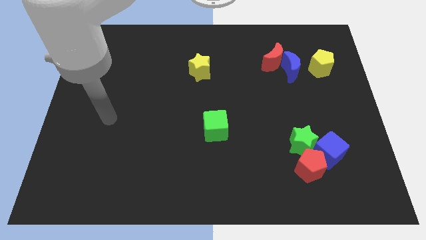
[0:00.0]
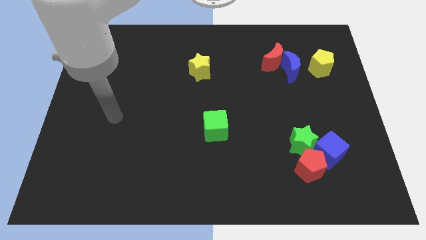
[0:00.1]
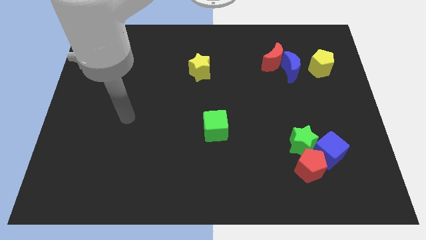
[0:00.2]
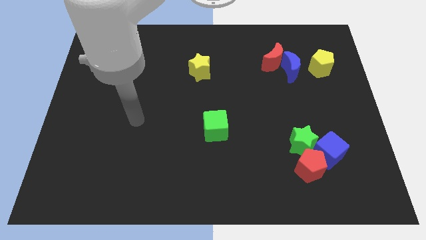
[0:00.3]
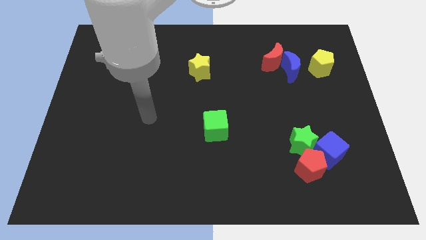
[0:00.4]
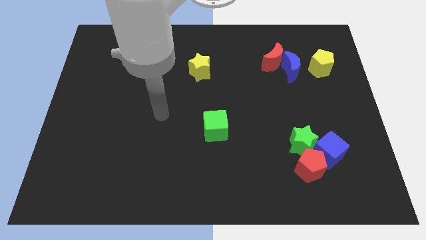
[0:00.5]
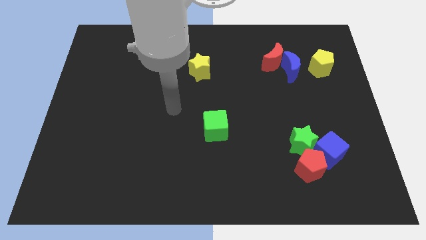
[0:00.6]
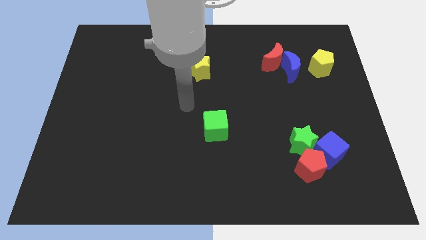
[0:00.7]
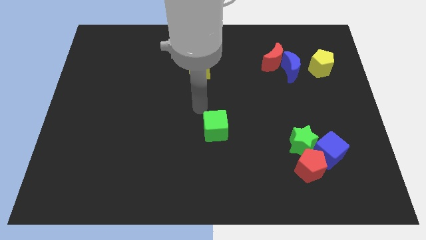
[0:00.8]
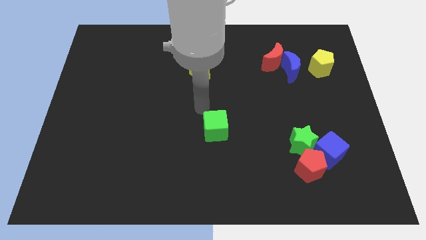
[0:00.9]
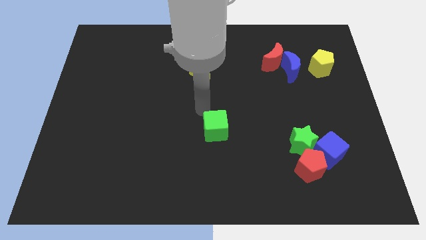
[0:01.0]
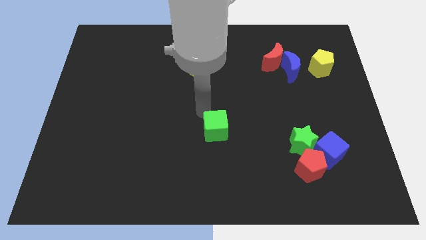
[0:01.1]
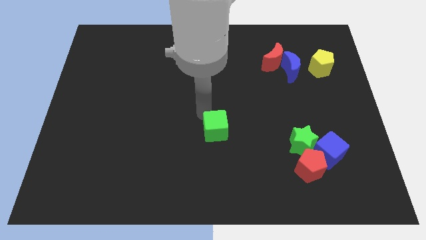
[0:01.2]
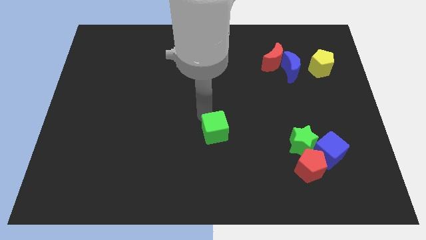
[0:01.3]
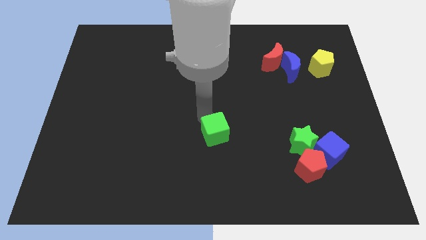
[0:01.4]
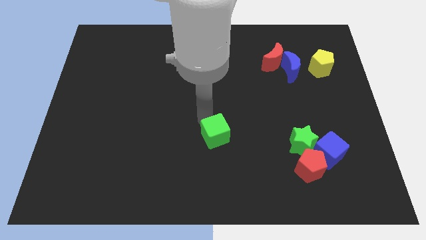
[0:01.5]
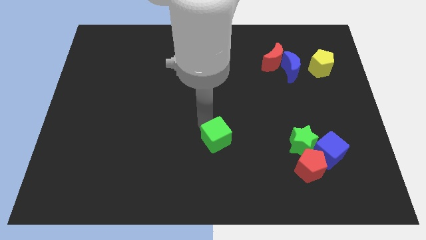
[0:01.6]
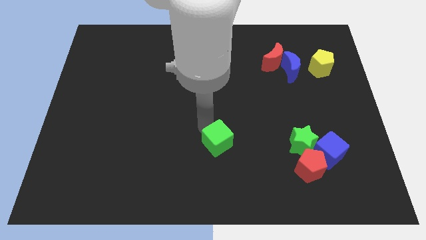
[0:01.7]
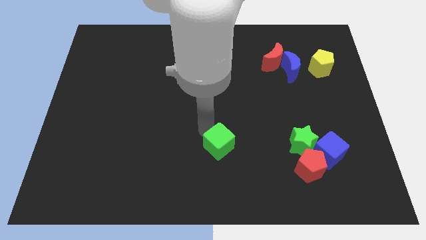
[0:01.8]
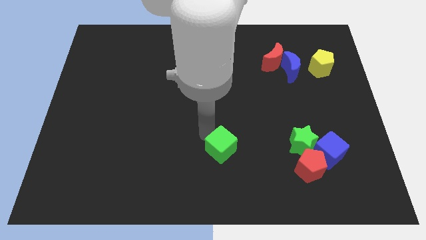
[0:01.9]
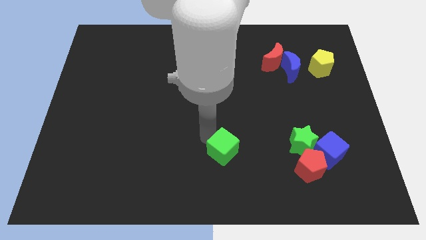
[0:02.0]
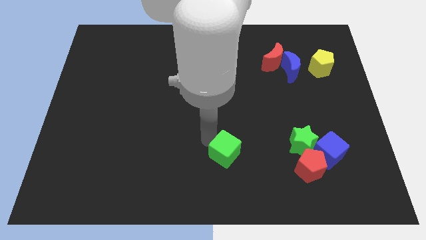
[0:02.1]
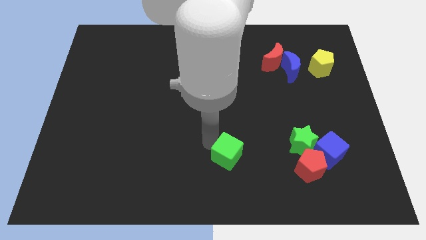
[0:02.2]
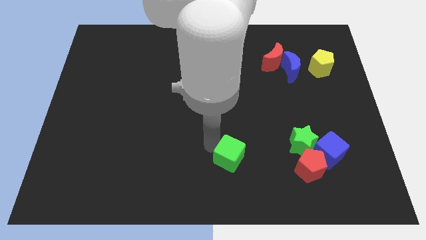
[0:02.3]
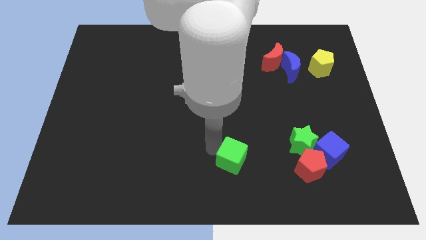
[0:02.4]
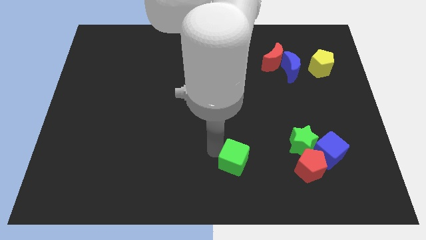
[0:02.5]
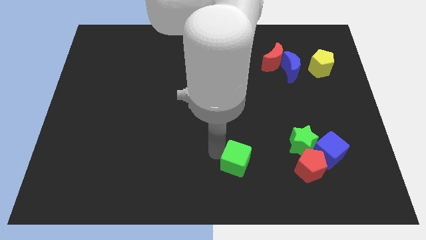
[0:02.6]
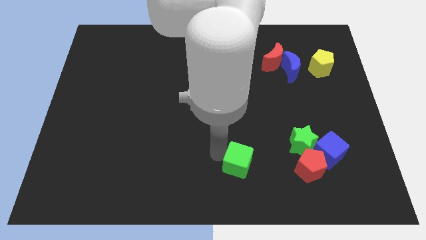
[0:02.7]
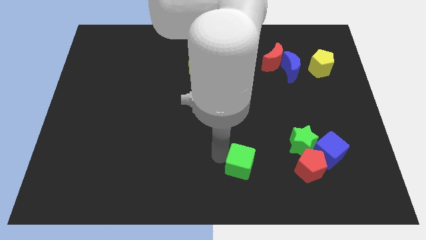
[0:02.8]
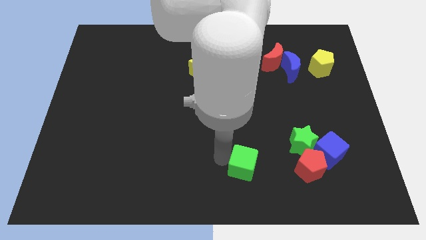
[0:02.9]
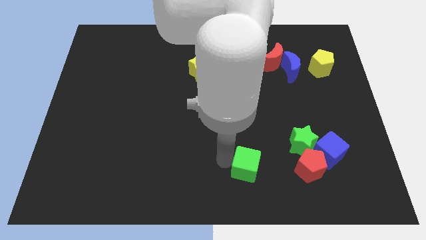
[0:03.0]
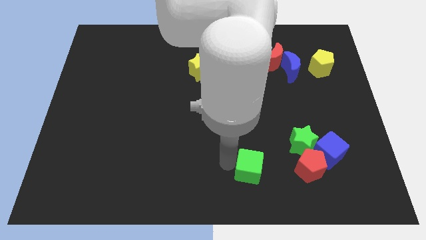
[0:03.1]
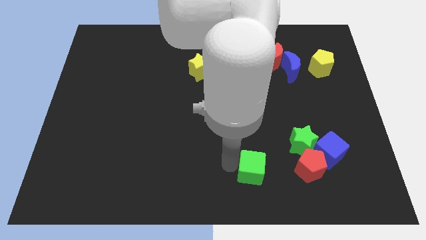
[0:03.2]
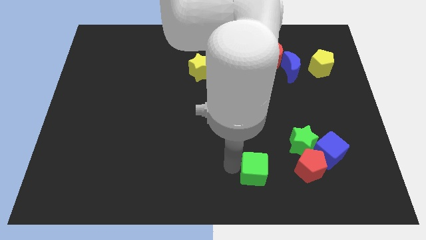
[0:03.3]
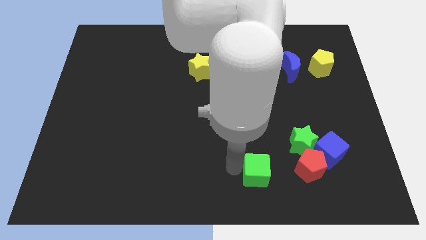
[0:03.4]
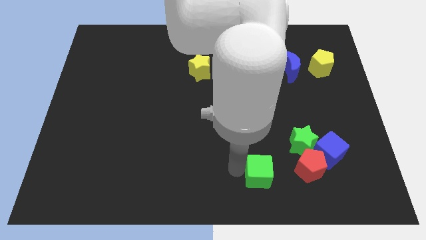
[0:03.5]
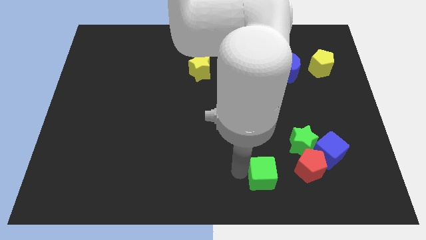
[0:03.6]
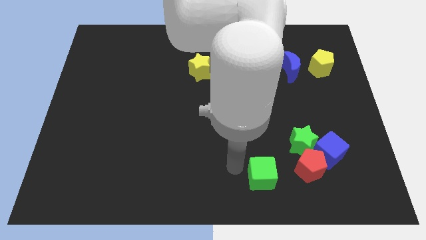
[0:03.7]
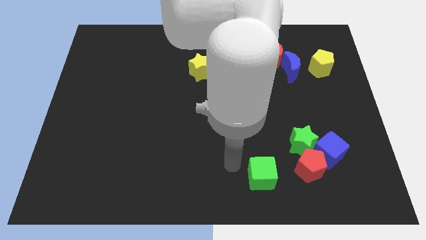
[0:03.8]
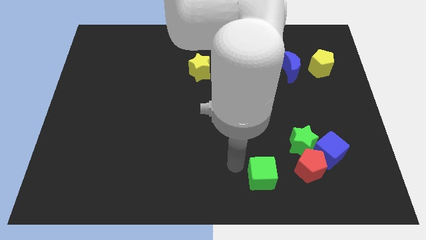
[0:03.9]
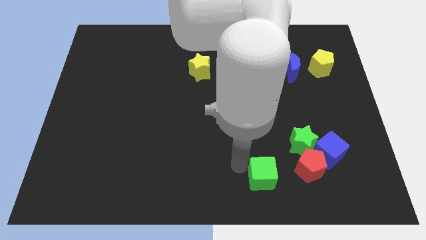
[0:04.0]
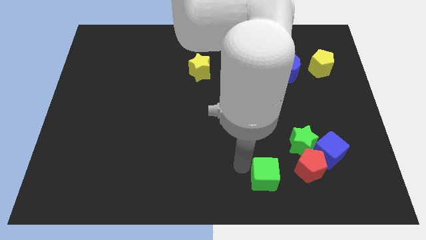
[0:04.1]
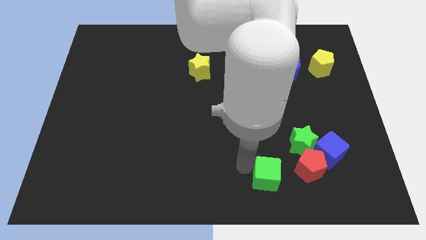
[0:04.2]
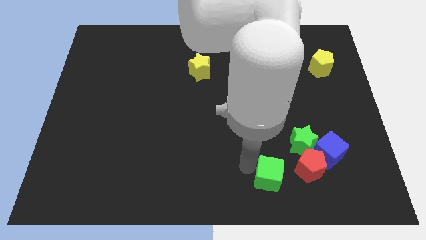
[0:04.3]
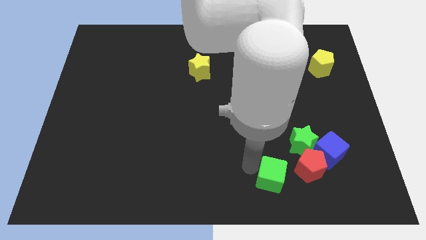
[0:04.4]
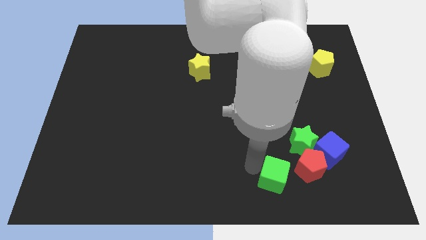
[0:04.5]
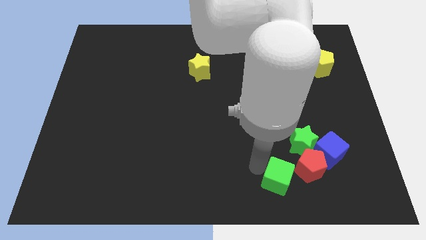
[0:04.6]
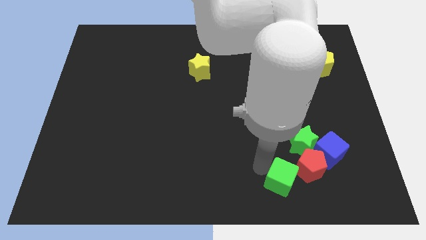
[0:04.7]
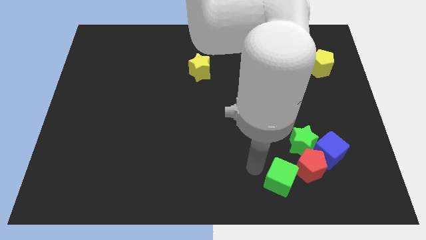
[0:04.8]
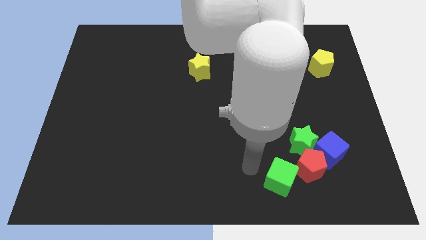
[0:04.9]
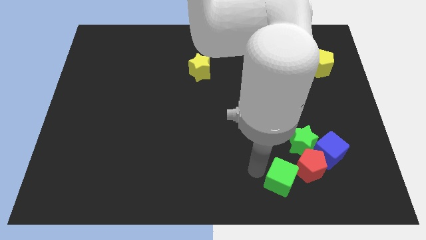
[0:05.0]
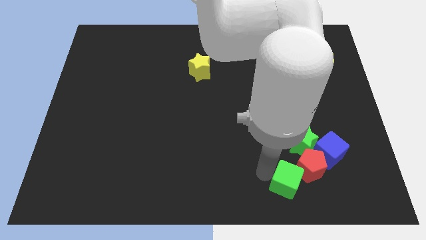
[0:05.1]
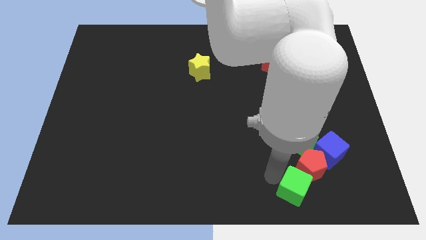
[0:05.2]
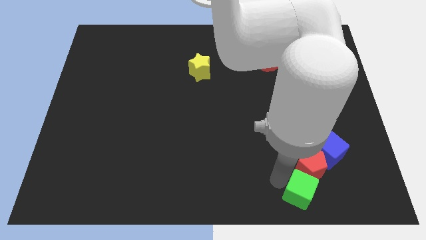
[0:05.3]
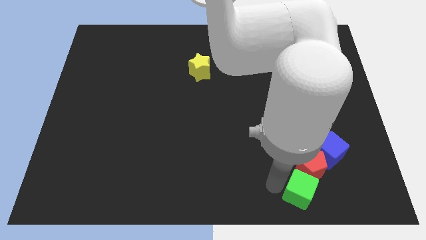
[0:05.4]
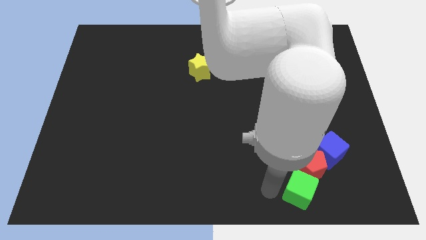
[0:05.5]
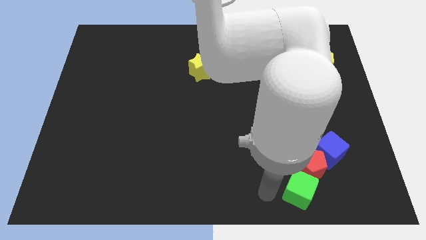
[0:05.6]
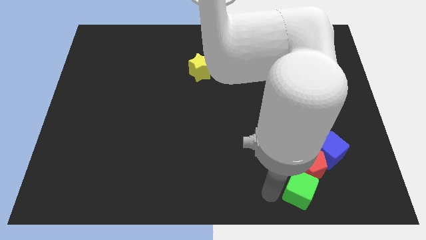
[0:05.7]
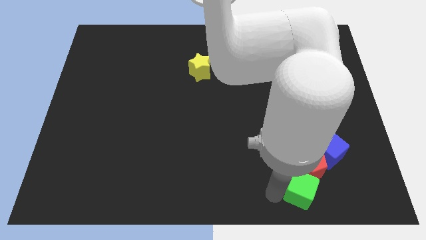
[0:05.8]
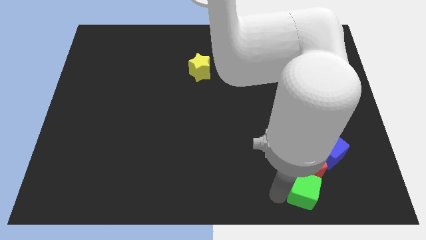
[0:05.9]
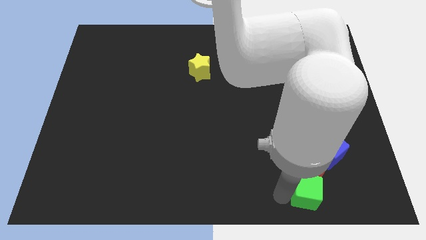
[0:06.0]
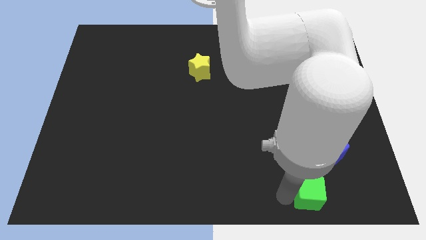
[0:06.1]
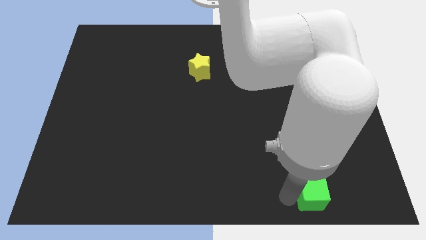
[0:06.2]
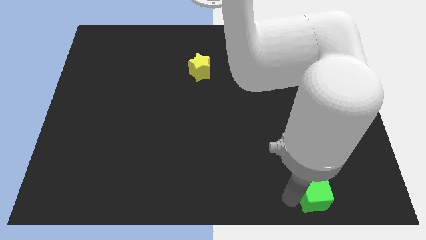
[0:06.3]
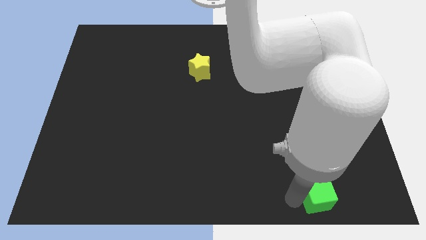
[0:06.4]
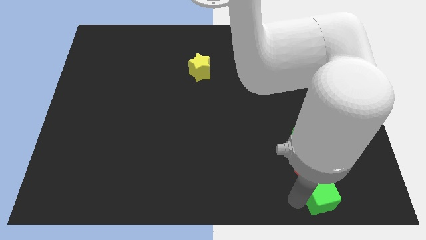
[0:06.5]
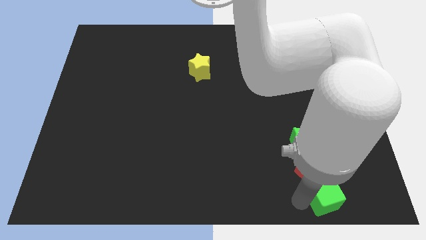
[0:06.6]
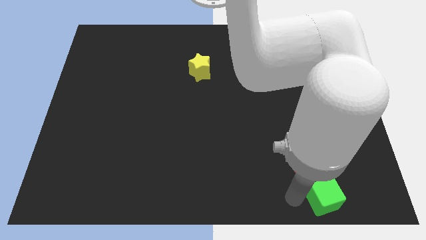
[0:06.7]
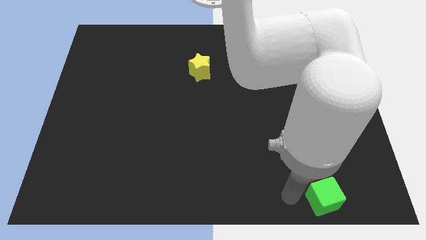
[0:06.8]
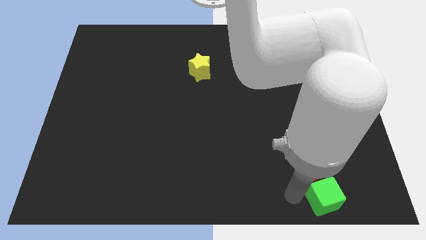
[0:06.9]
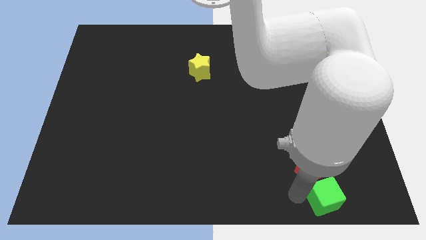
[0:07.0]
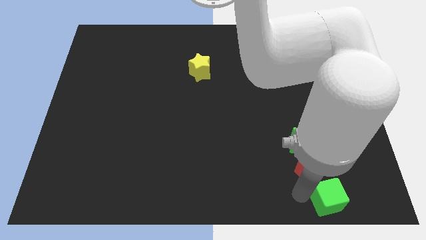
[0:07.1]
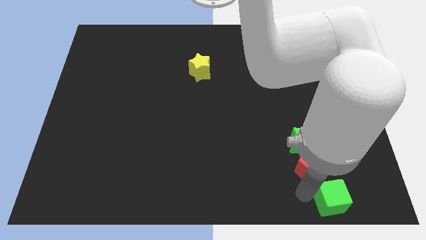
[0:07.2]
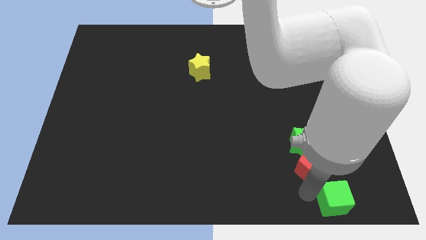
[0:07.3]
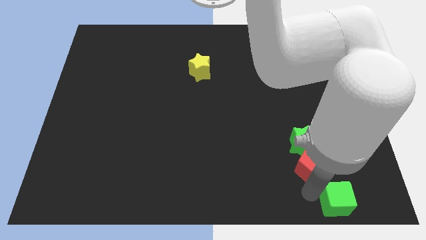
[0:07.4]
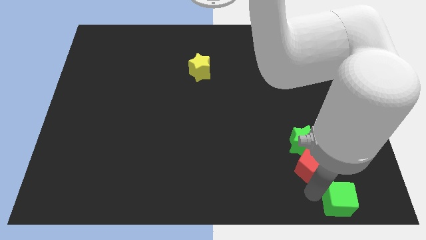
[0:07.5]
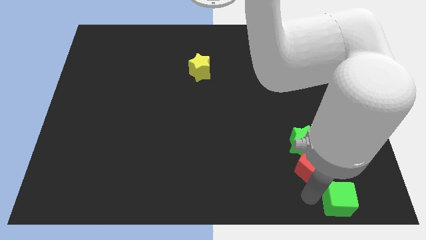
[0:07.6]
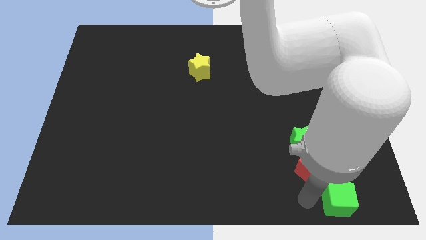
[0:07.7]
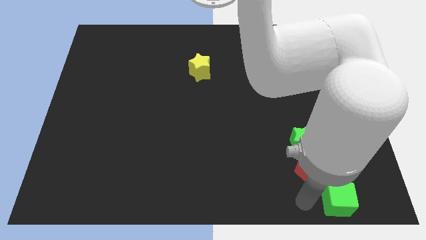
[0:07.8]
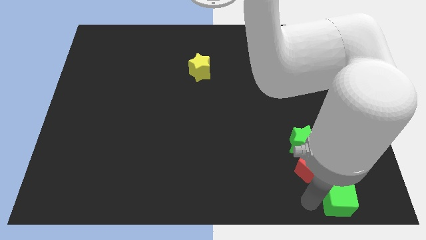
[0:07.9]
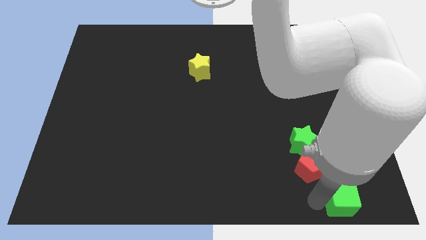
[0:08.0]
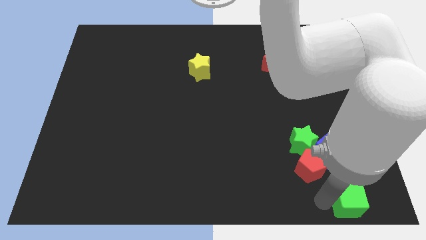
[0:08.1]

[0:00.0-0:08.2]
slide the green cube to the bottom right of the board
